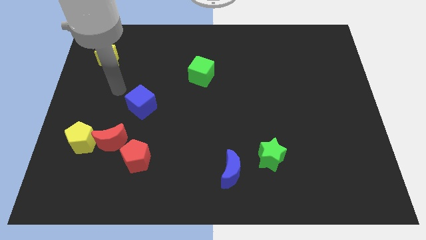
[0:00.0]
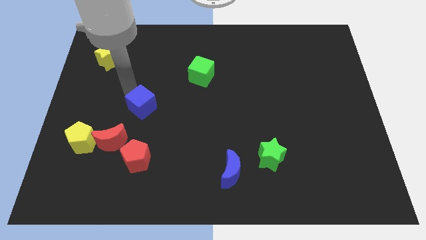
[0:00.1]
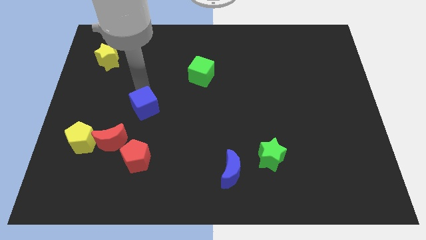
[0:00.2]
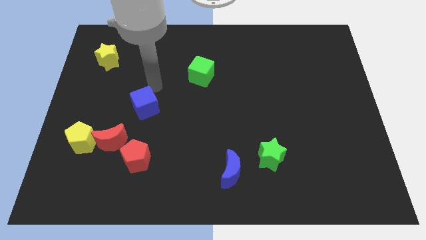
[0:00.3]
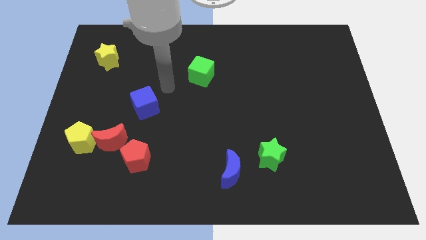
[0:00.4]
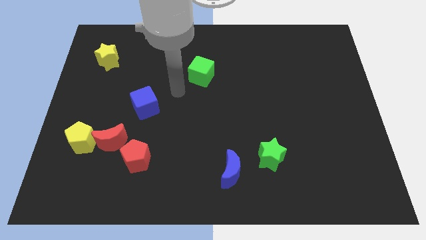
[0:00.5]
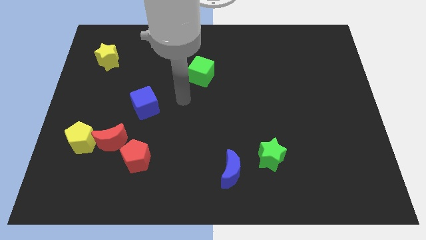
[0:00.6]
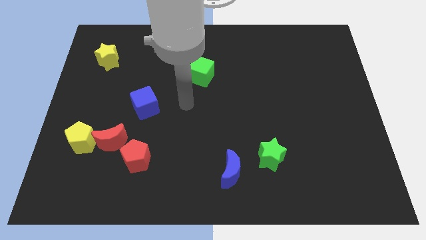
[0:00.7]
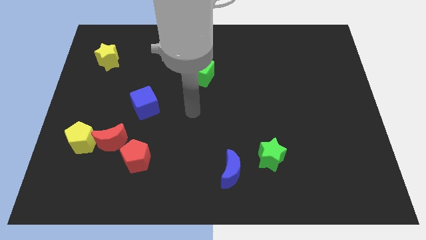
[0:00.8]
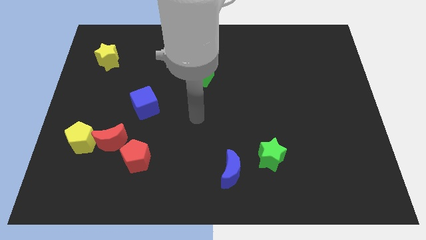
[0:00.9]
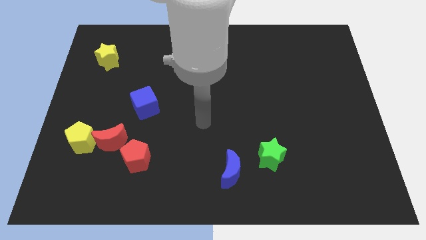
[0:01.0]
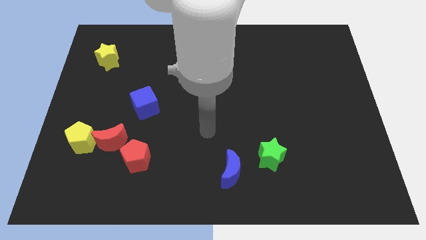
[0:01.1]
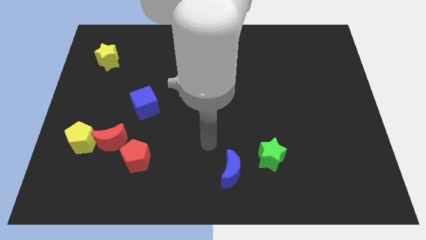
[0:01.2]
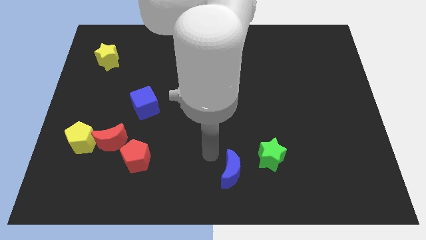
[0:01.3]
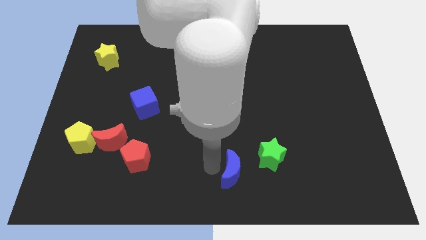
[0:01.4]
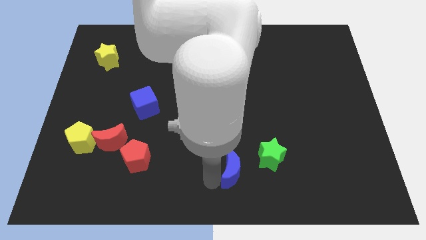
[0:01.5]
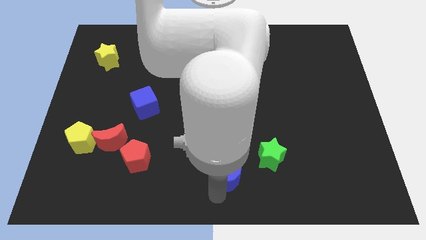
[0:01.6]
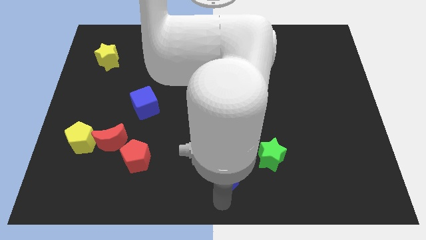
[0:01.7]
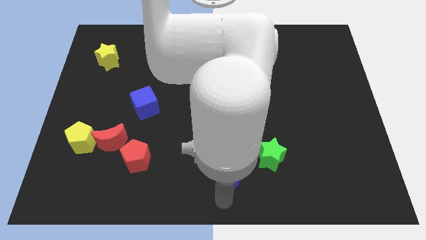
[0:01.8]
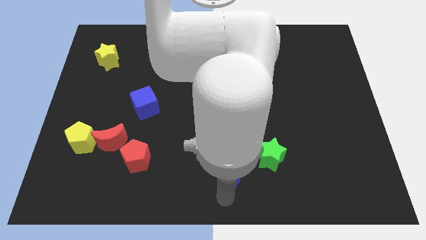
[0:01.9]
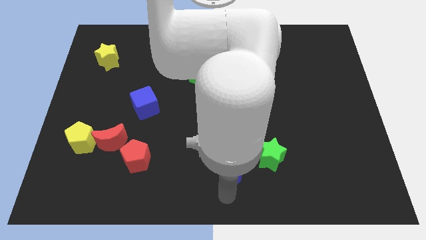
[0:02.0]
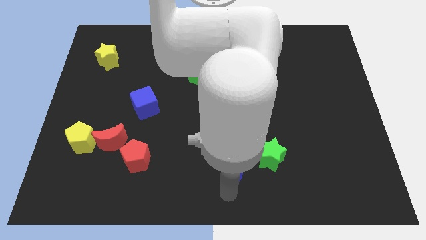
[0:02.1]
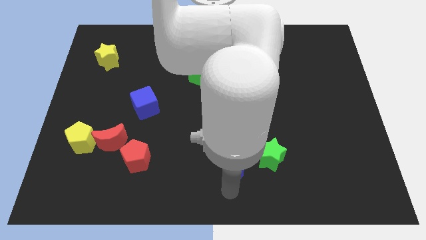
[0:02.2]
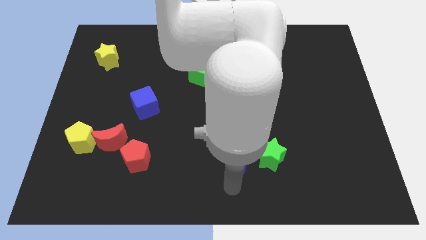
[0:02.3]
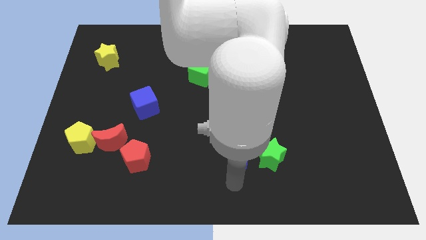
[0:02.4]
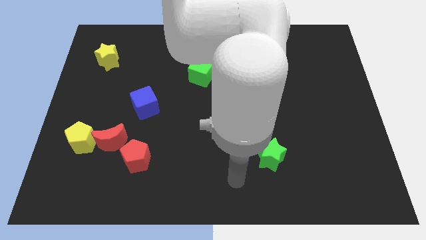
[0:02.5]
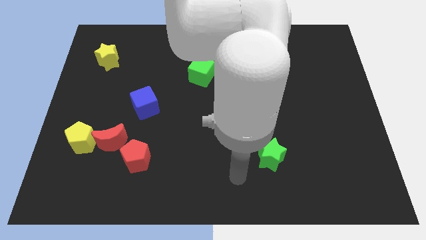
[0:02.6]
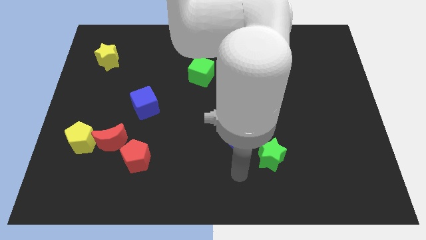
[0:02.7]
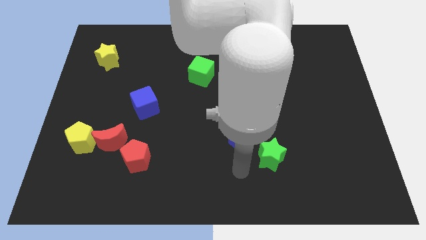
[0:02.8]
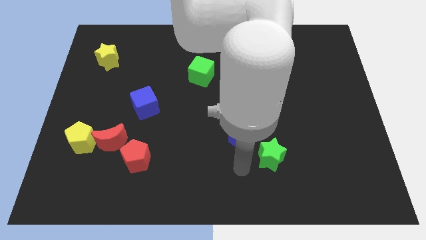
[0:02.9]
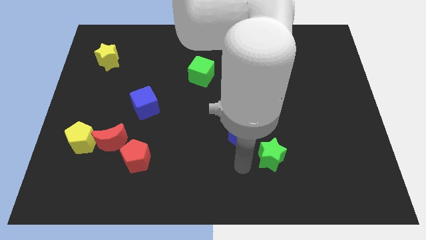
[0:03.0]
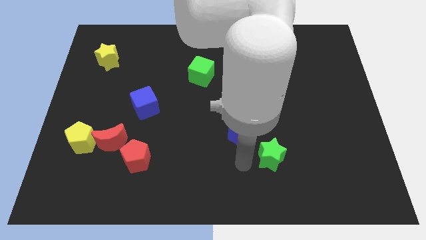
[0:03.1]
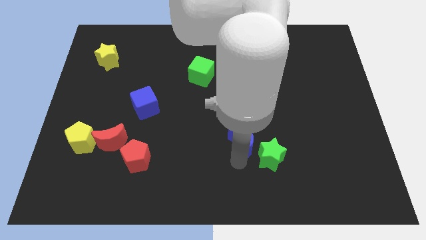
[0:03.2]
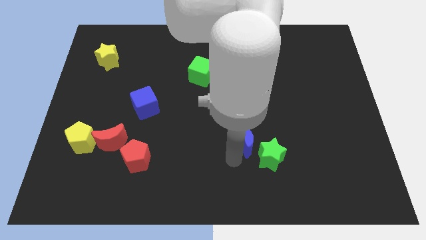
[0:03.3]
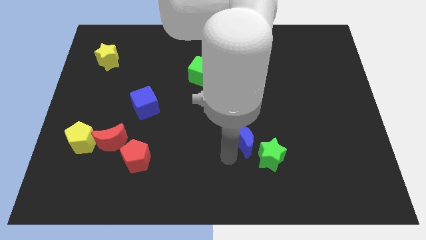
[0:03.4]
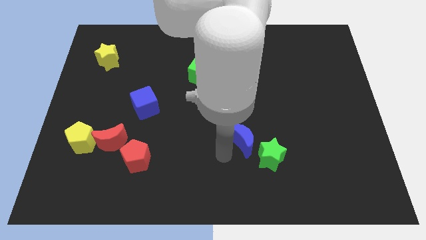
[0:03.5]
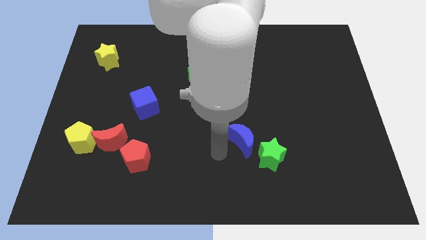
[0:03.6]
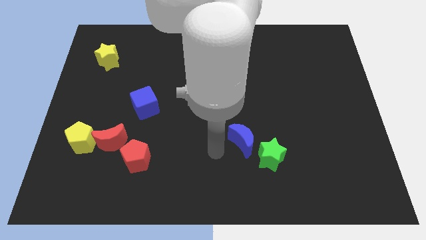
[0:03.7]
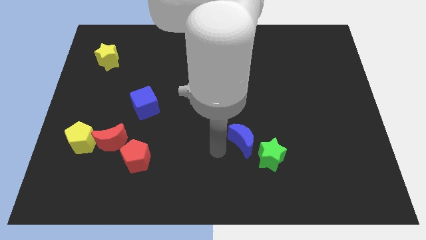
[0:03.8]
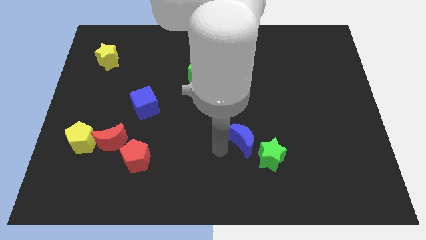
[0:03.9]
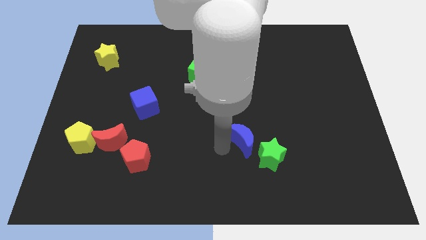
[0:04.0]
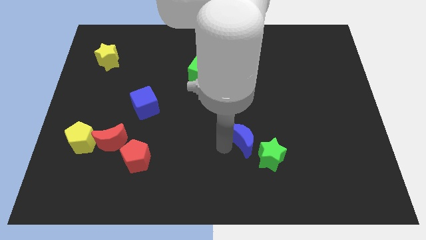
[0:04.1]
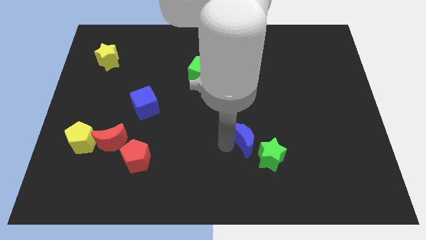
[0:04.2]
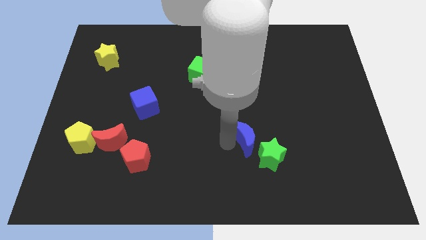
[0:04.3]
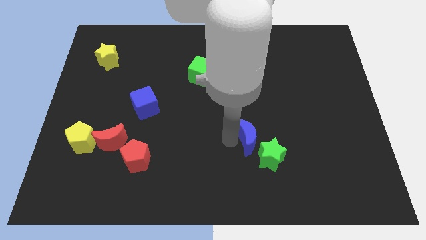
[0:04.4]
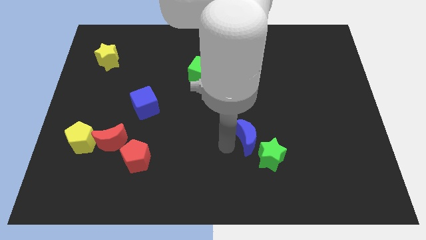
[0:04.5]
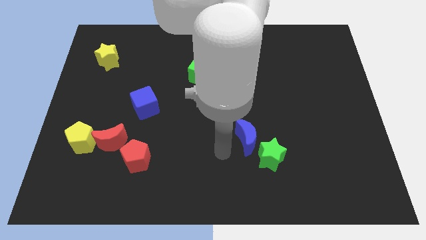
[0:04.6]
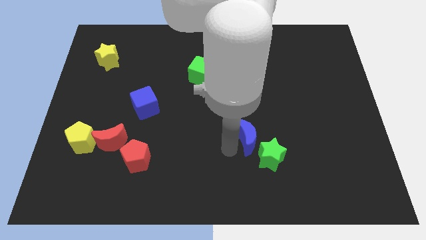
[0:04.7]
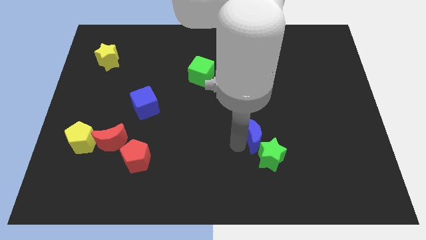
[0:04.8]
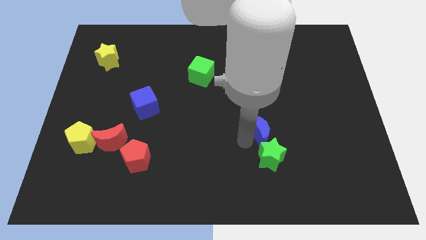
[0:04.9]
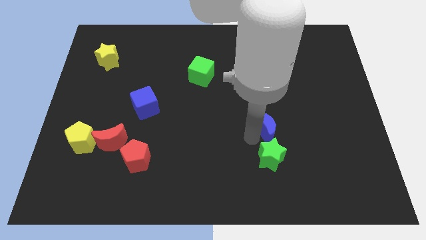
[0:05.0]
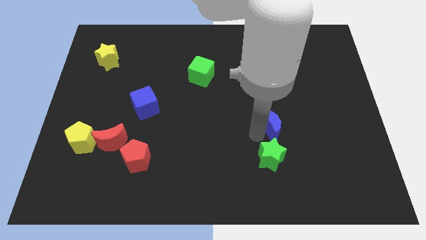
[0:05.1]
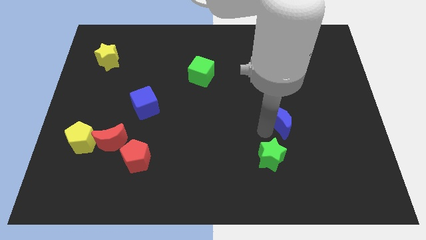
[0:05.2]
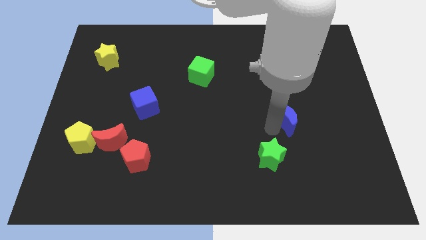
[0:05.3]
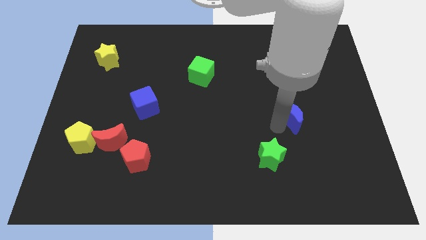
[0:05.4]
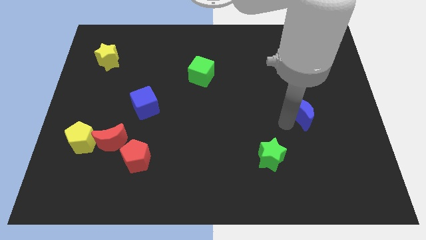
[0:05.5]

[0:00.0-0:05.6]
push the blue moon up and to the right

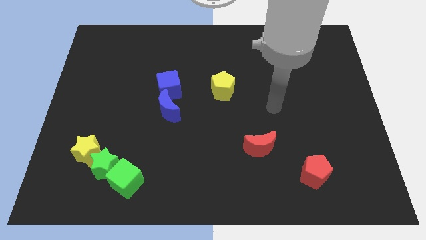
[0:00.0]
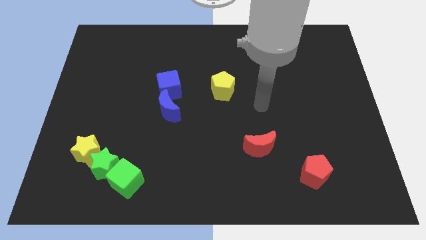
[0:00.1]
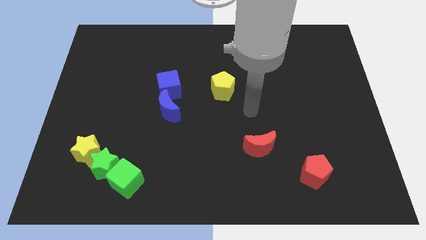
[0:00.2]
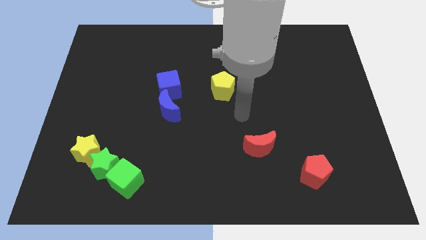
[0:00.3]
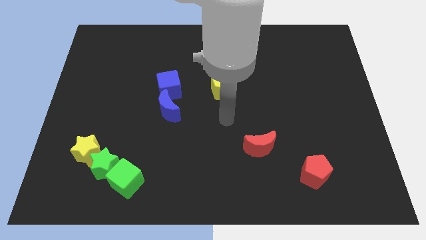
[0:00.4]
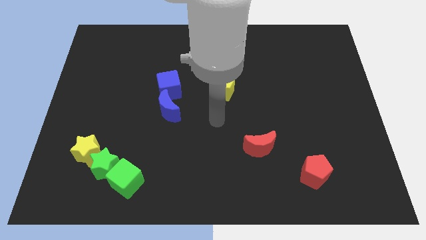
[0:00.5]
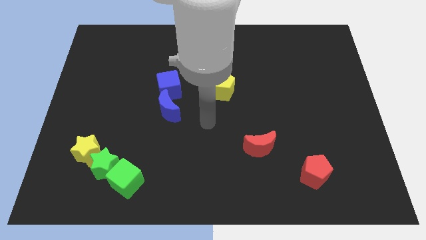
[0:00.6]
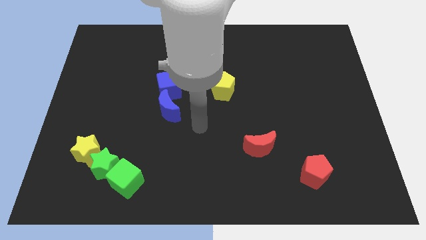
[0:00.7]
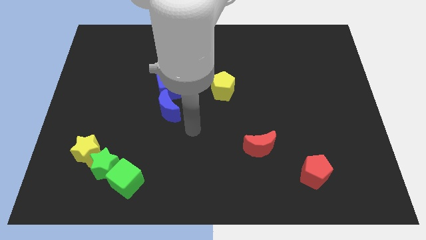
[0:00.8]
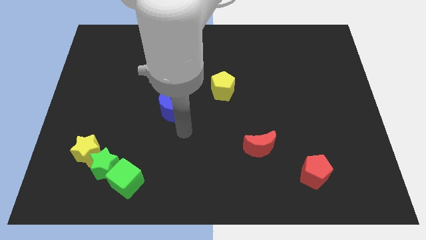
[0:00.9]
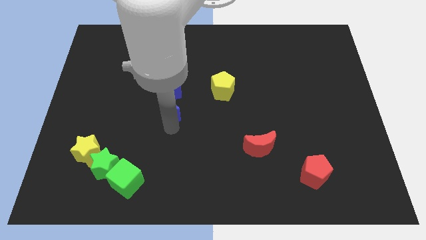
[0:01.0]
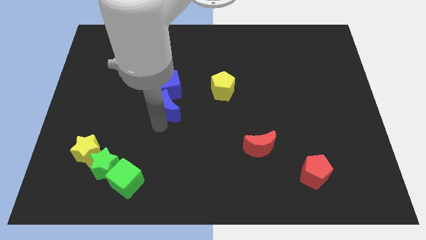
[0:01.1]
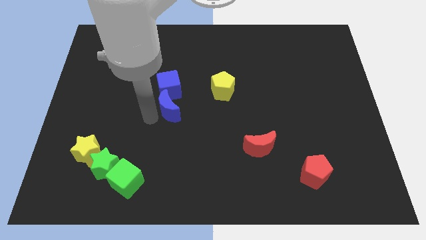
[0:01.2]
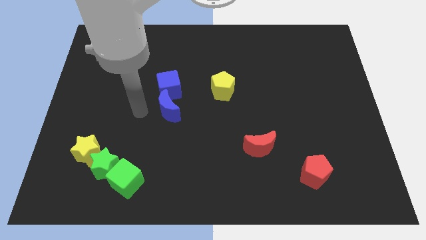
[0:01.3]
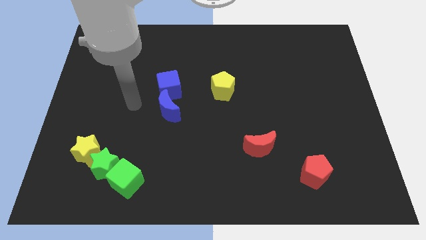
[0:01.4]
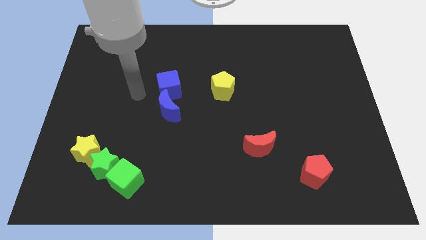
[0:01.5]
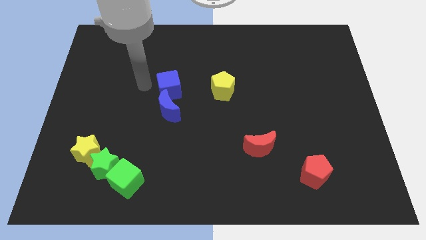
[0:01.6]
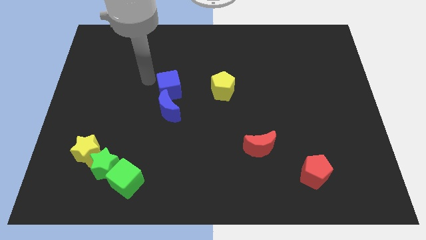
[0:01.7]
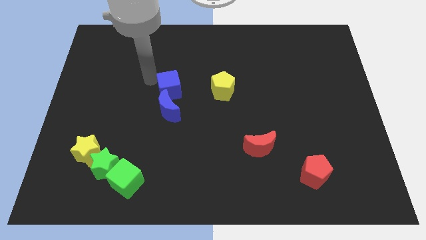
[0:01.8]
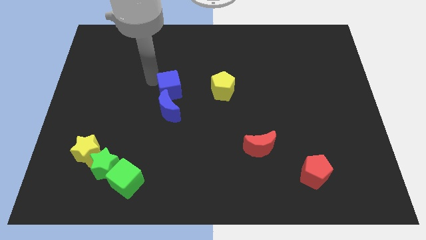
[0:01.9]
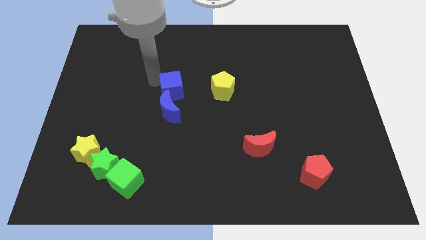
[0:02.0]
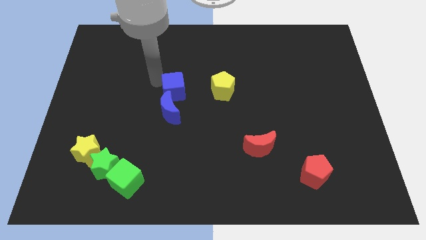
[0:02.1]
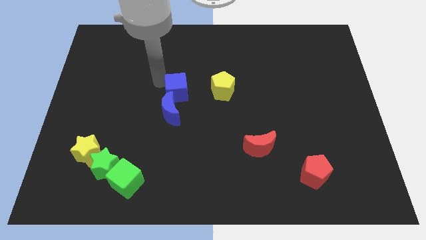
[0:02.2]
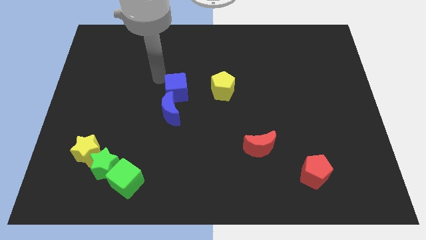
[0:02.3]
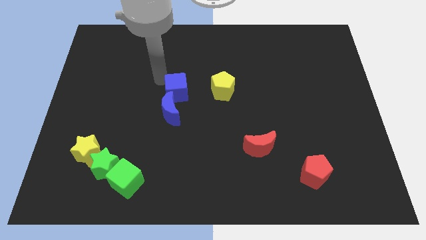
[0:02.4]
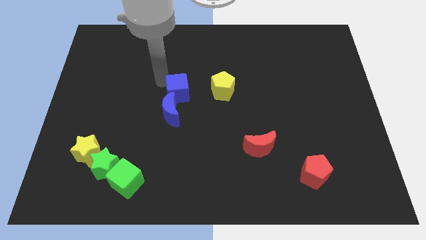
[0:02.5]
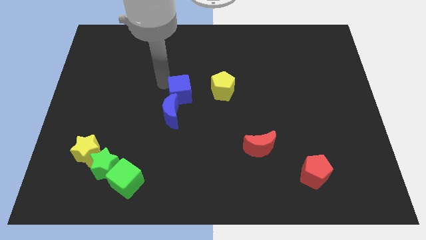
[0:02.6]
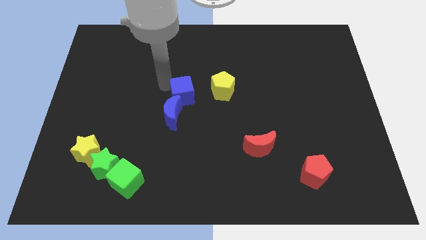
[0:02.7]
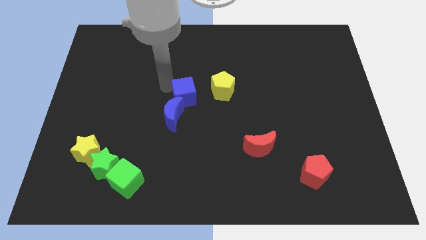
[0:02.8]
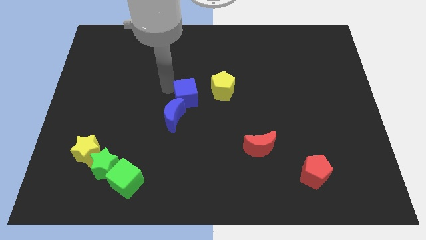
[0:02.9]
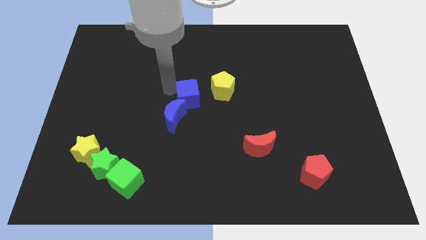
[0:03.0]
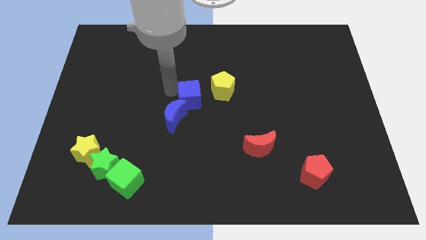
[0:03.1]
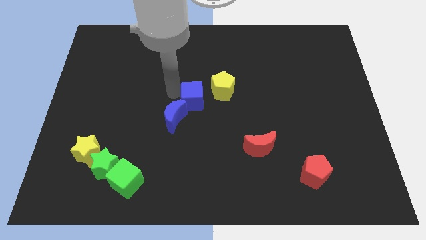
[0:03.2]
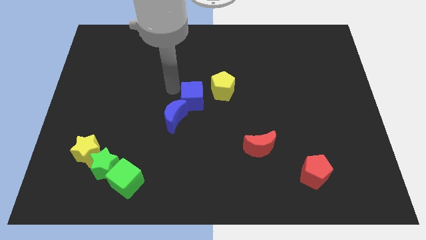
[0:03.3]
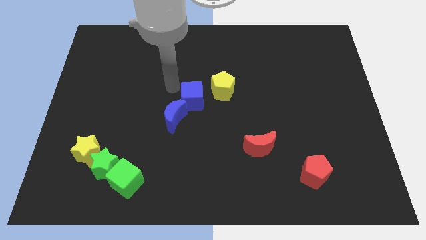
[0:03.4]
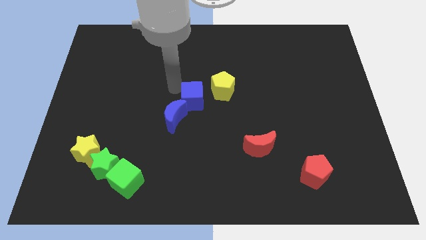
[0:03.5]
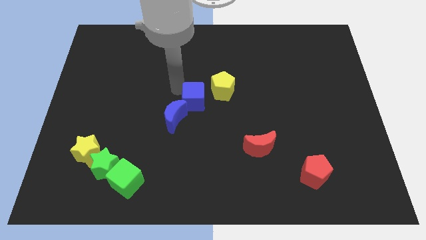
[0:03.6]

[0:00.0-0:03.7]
slide the blue cube a little bit down and to the right
